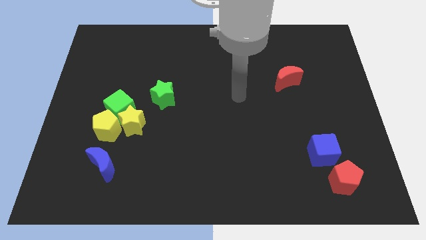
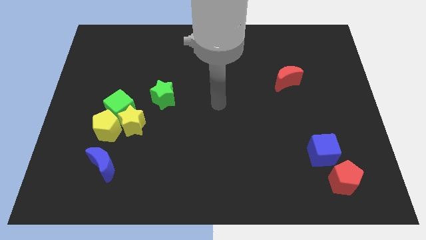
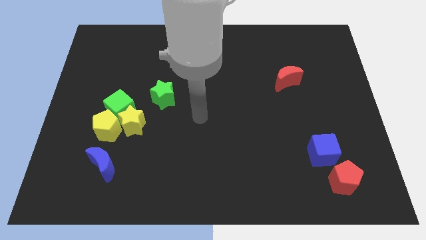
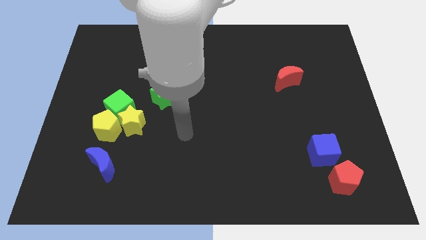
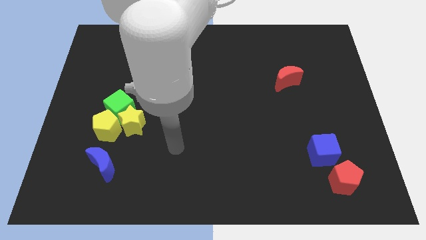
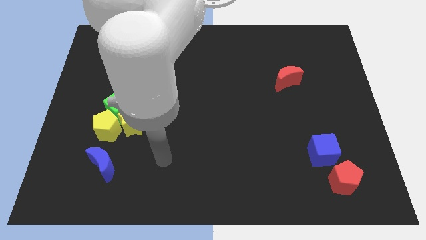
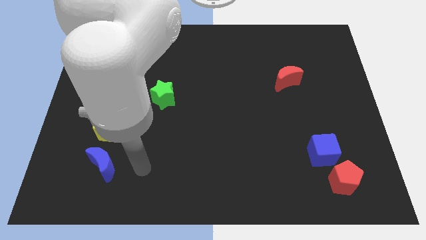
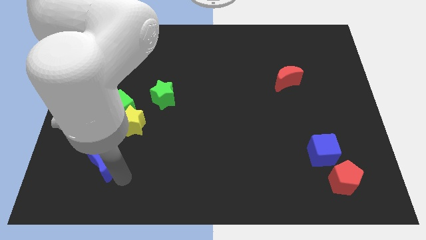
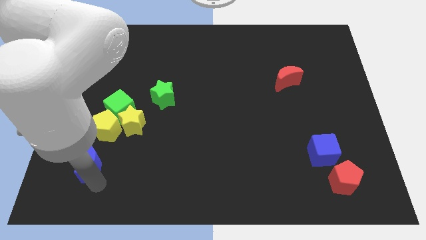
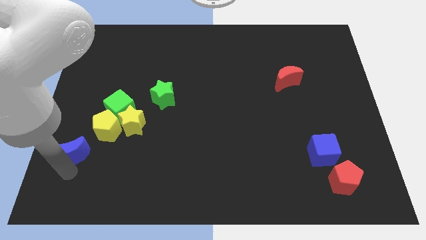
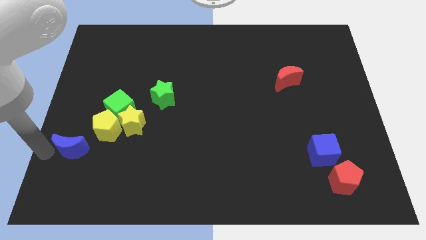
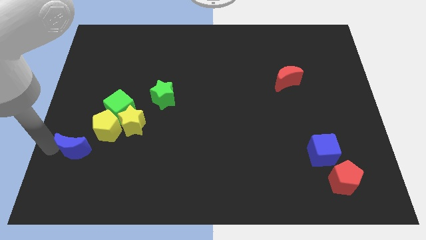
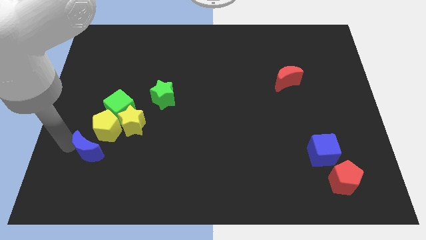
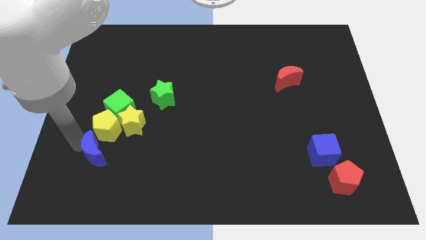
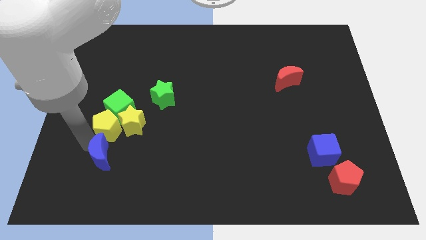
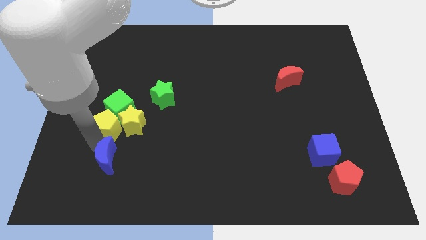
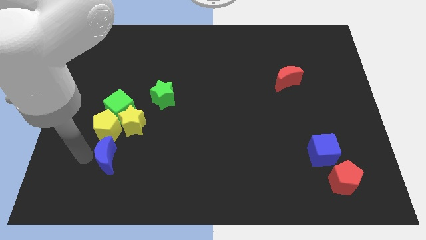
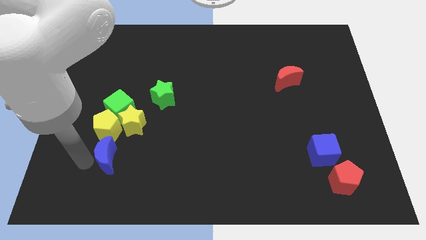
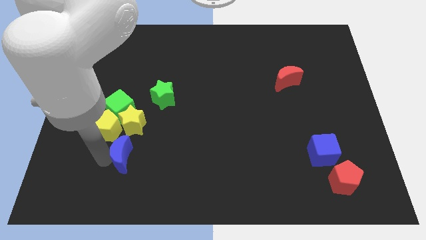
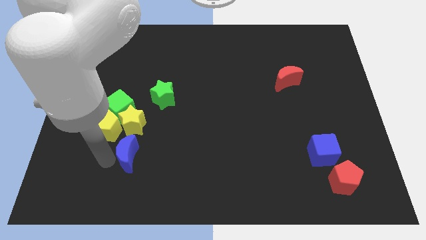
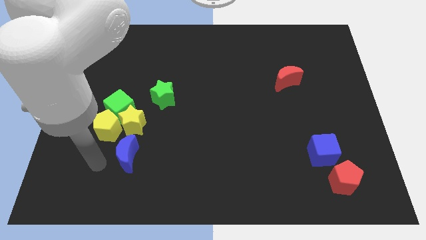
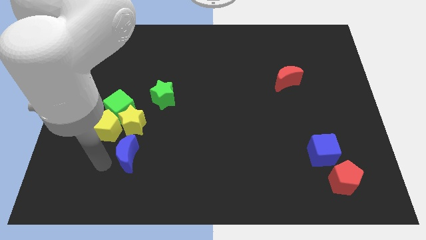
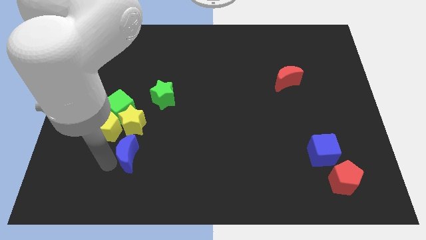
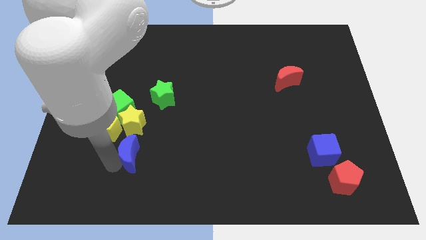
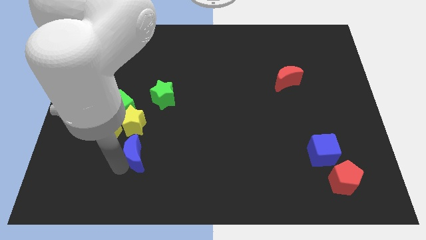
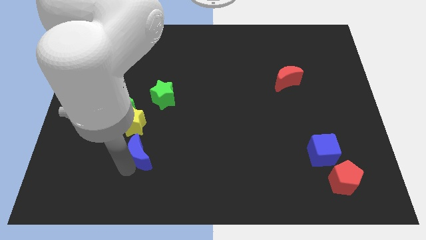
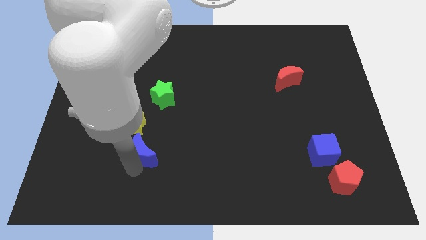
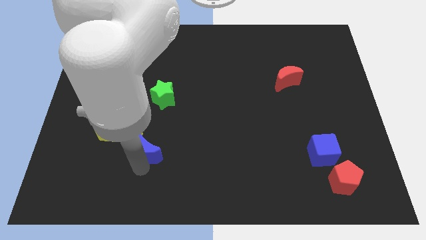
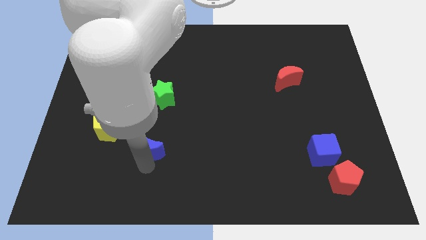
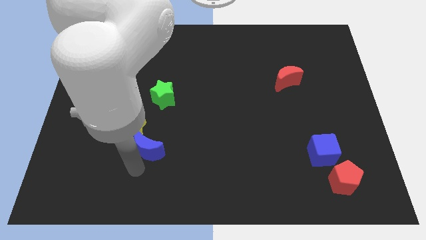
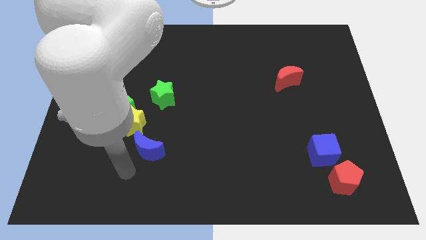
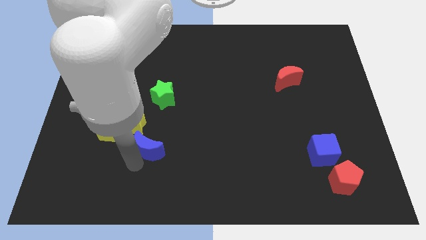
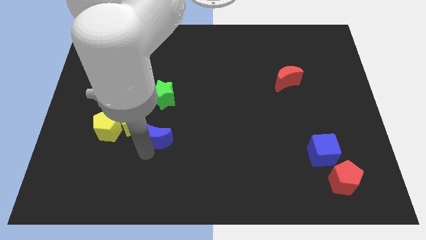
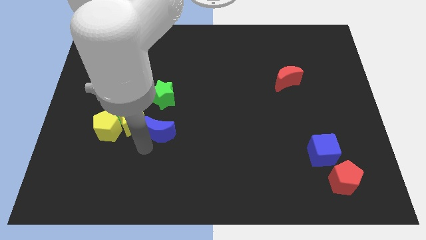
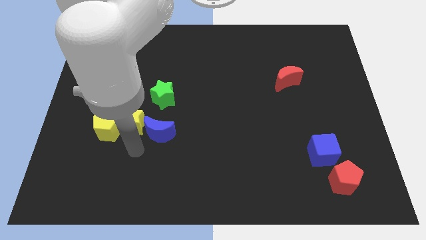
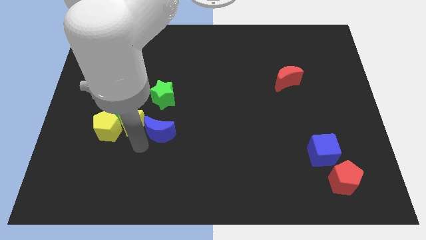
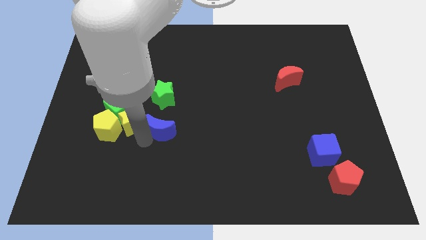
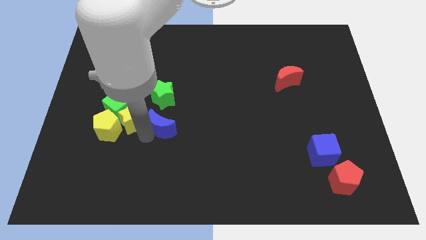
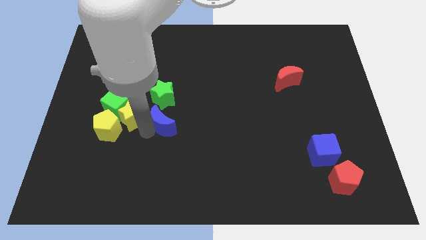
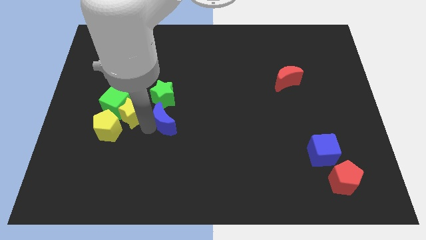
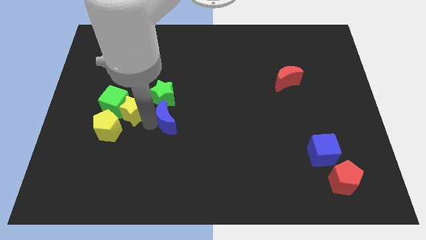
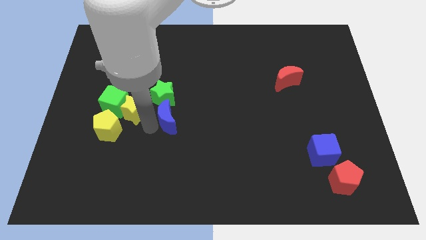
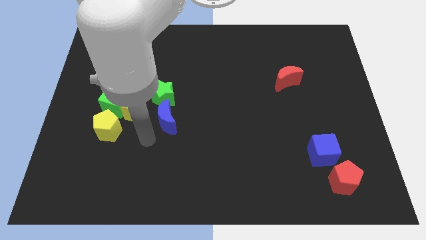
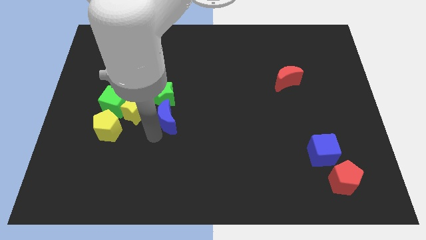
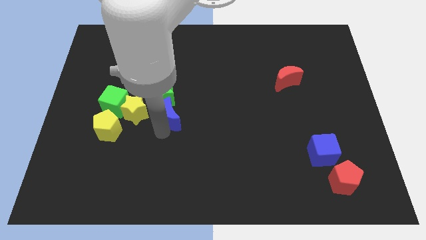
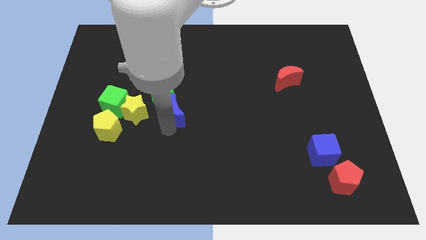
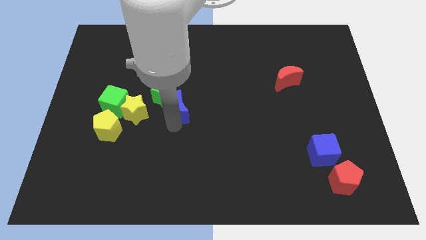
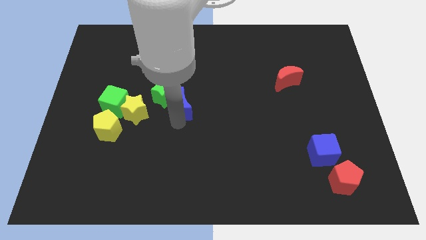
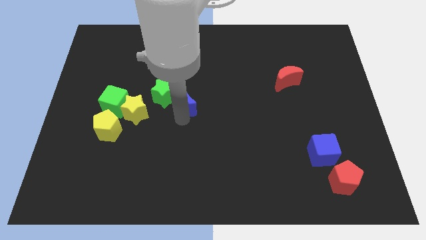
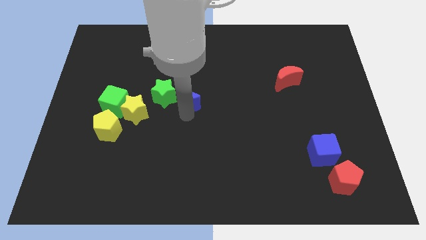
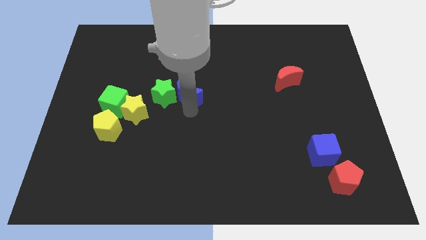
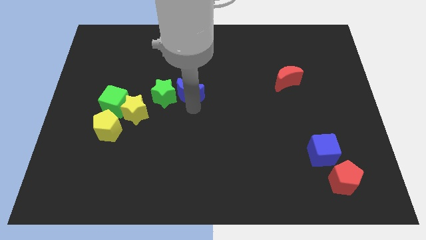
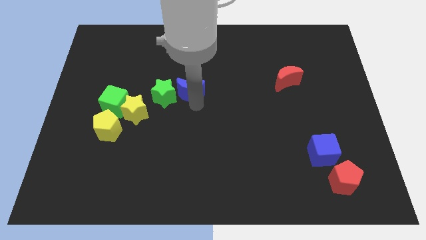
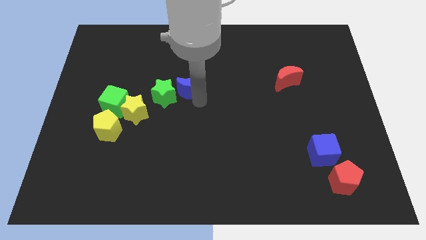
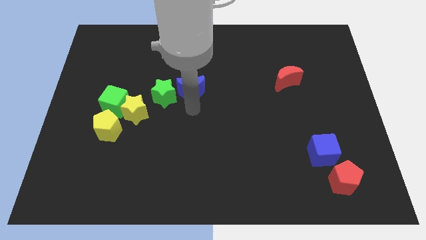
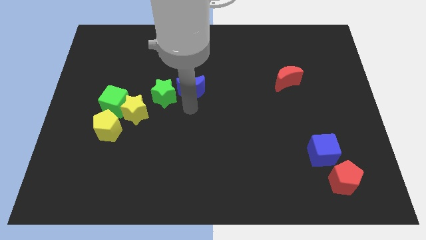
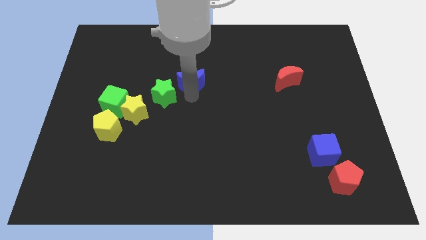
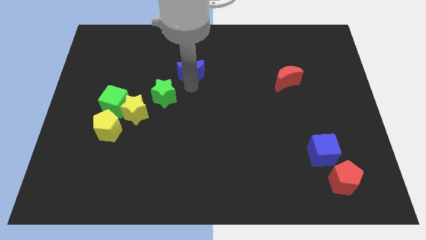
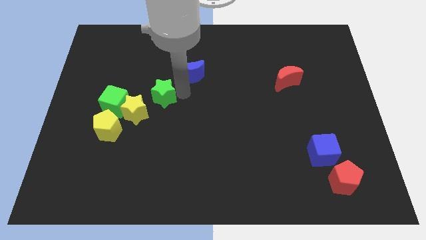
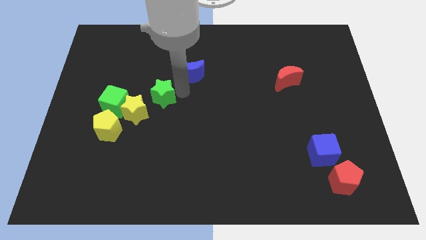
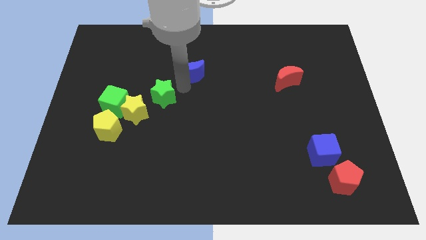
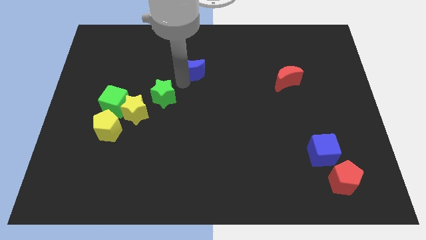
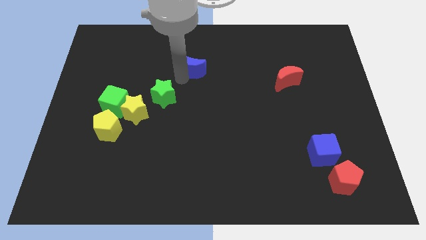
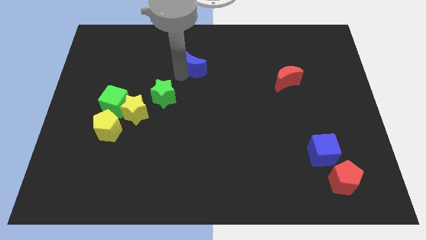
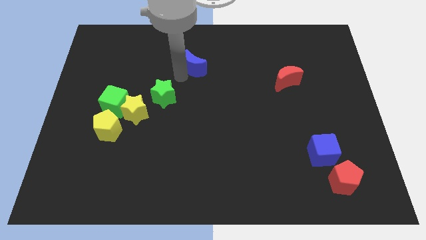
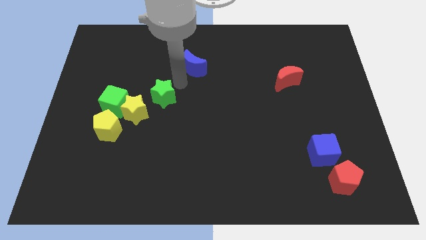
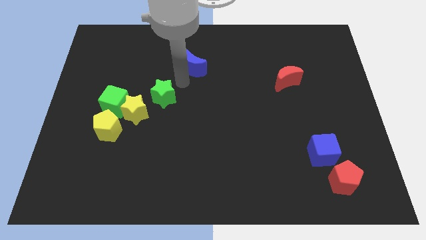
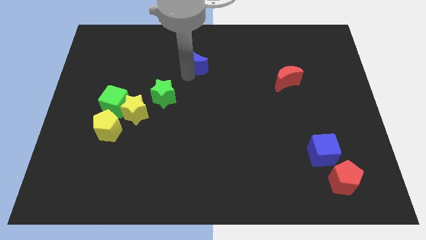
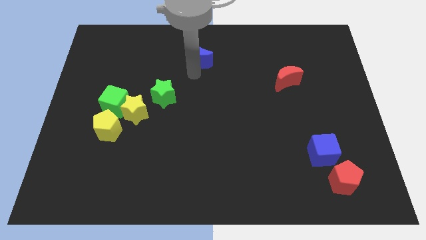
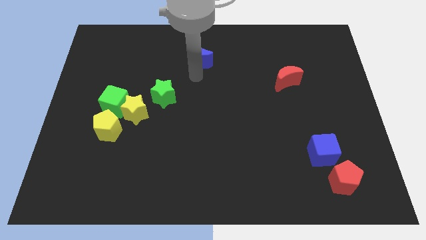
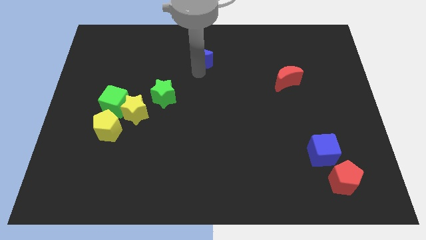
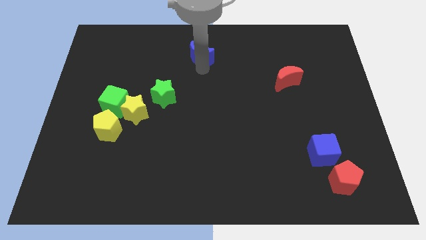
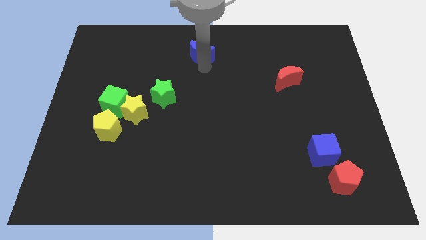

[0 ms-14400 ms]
push the blue moon to the towards your base

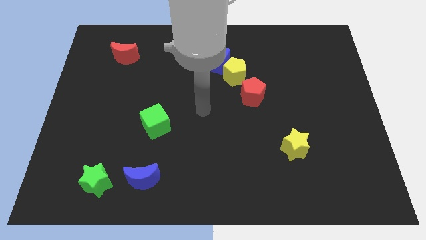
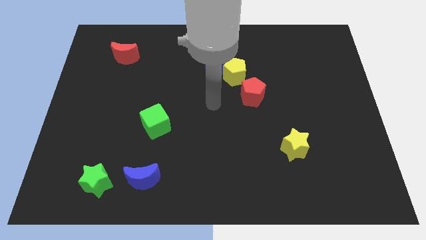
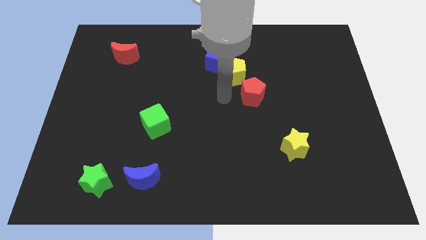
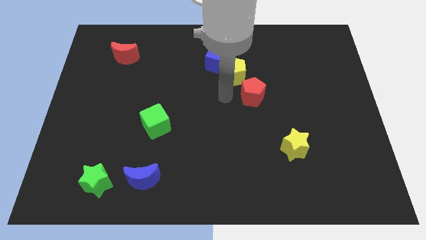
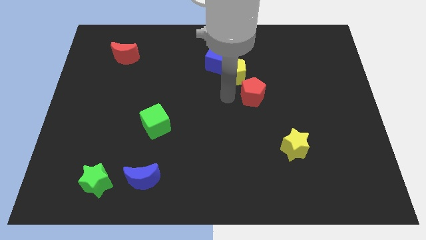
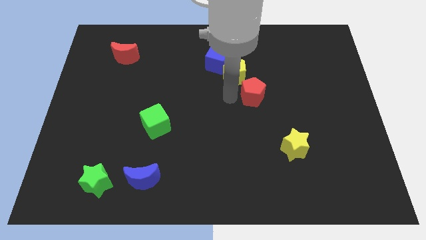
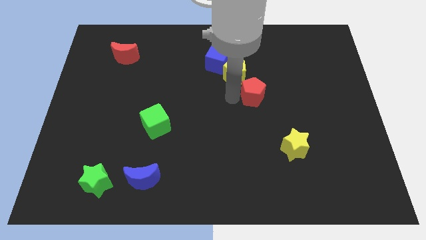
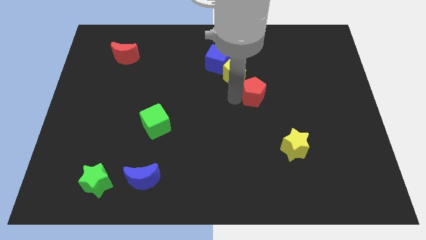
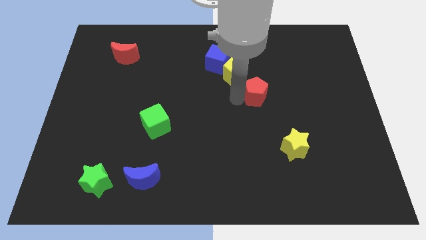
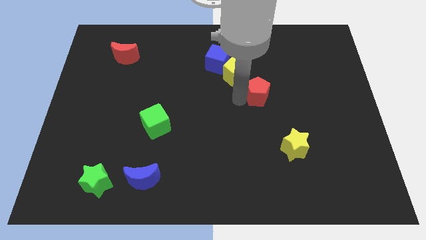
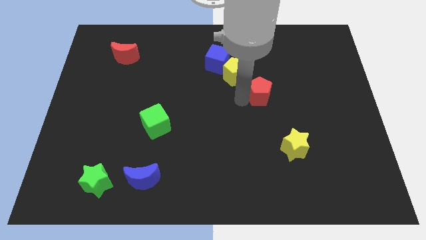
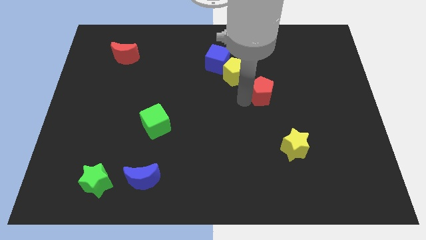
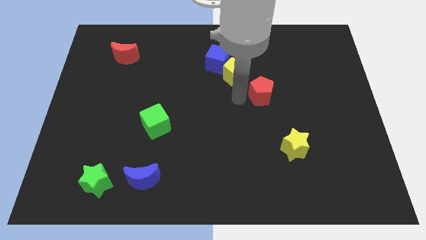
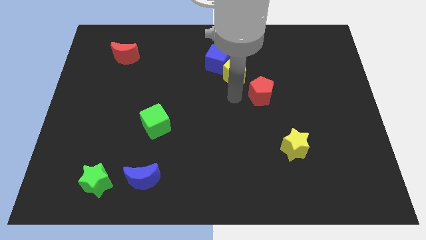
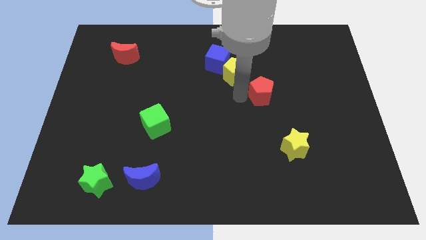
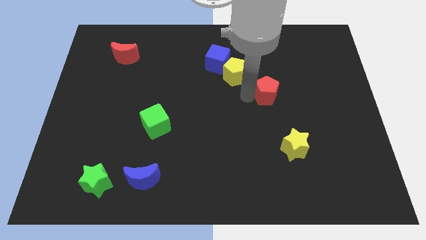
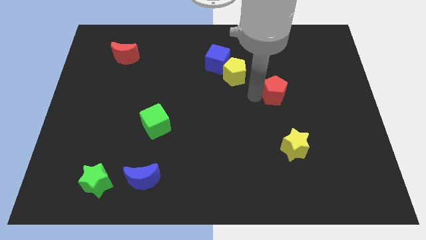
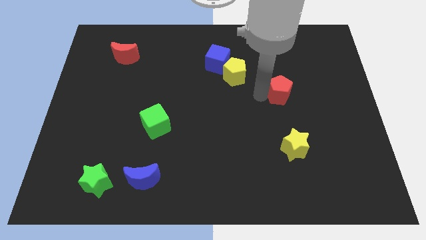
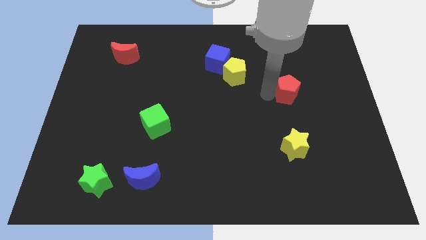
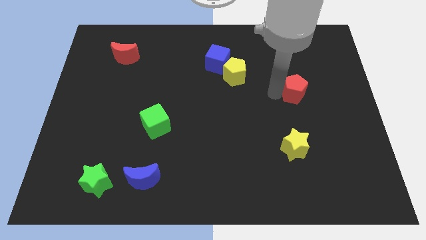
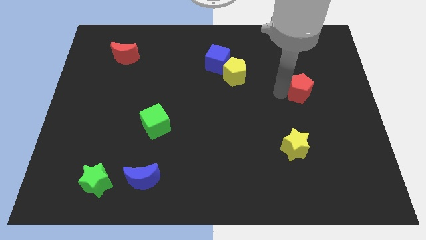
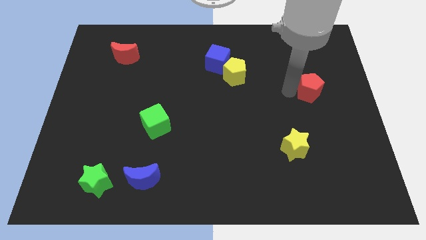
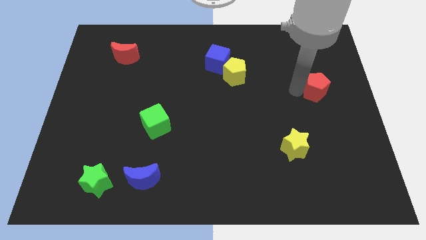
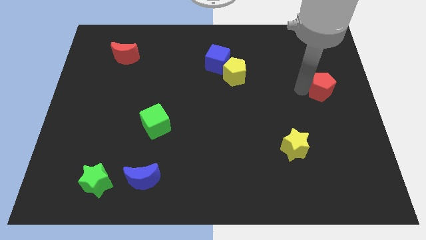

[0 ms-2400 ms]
push the red pentagon to the right side
